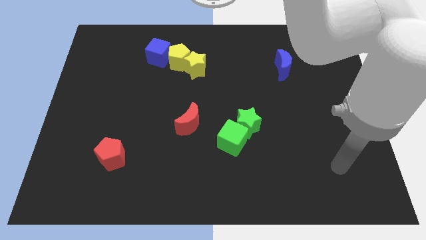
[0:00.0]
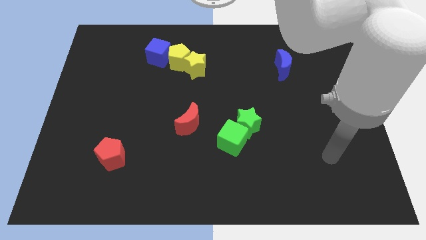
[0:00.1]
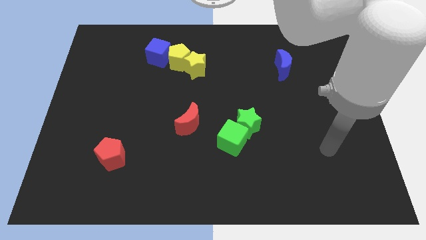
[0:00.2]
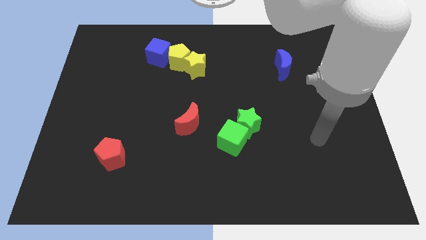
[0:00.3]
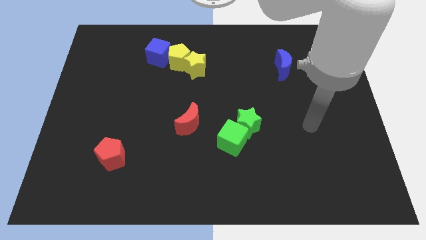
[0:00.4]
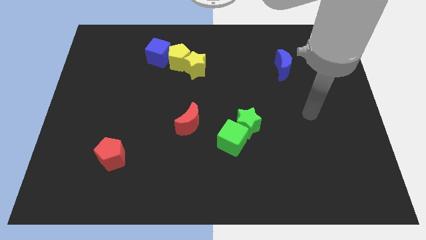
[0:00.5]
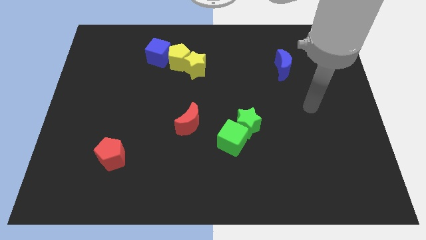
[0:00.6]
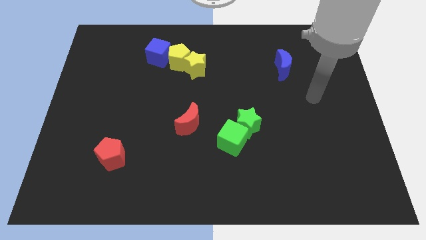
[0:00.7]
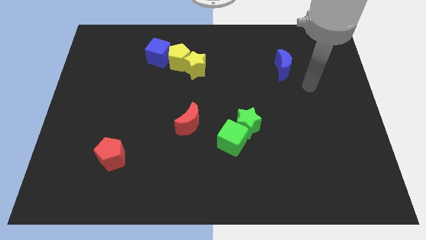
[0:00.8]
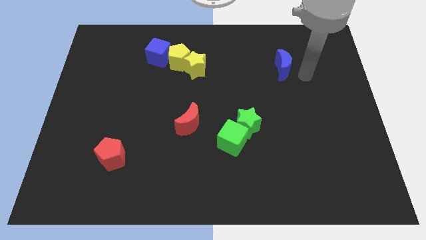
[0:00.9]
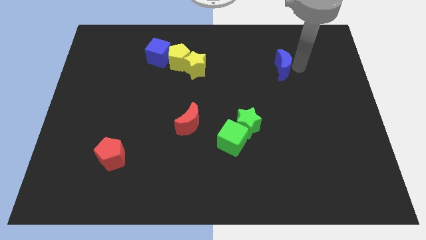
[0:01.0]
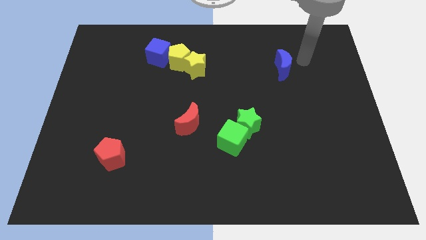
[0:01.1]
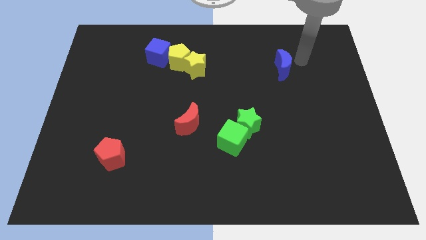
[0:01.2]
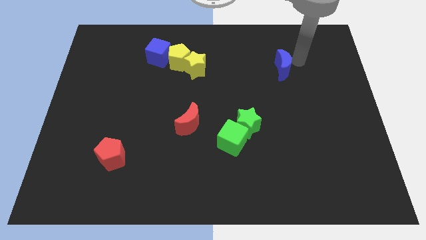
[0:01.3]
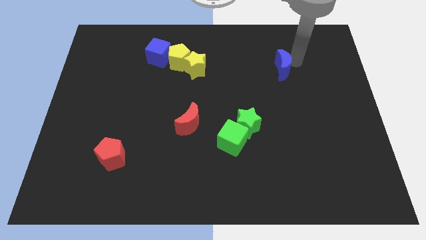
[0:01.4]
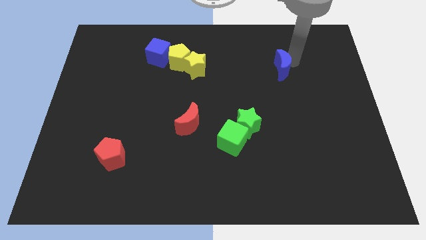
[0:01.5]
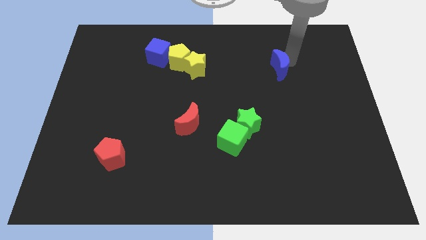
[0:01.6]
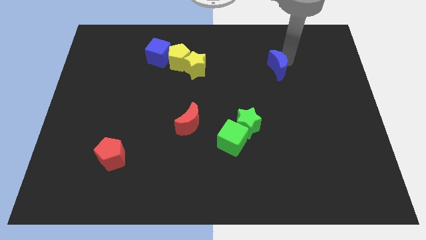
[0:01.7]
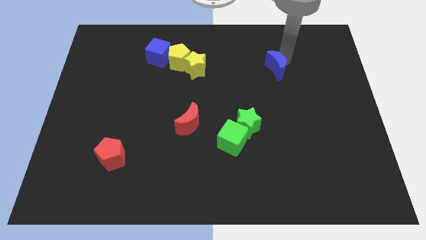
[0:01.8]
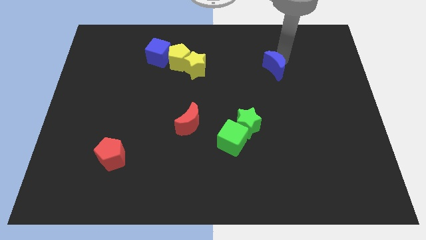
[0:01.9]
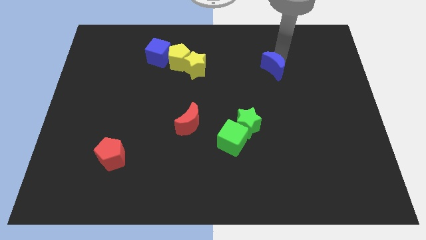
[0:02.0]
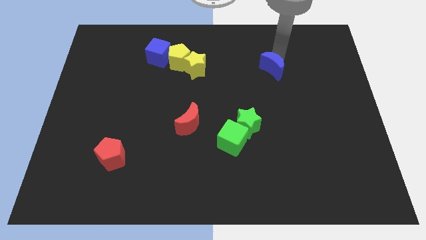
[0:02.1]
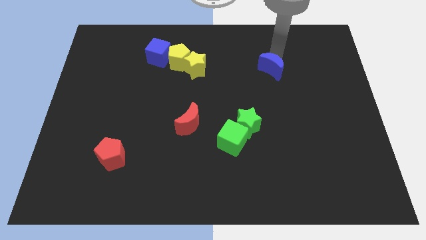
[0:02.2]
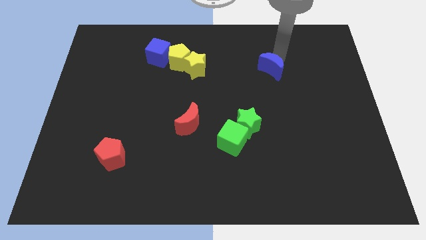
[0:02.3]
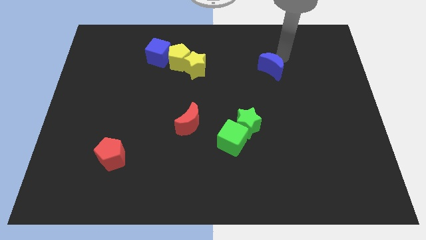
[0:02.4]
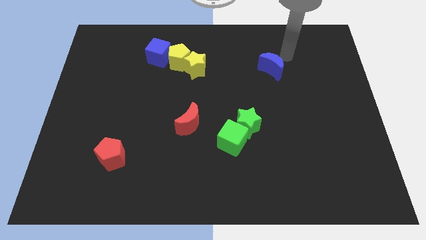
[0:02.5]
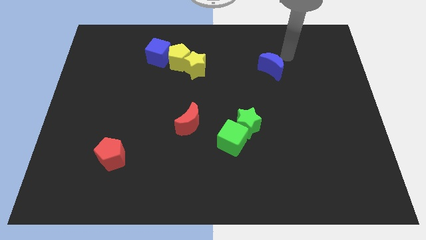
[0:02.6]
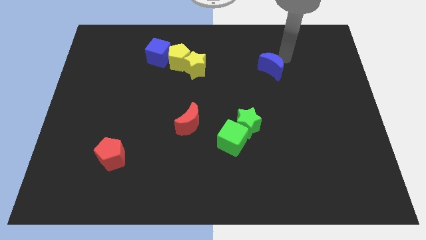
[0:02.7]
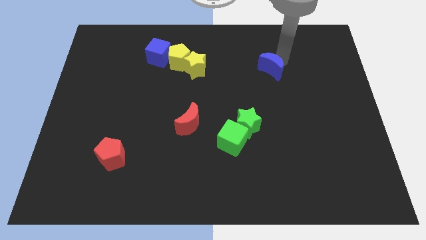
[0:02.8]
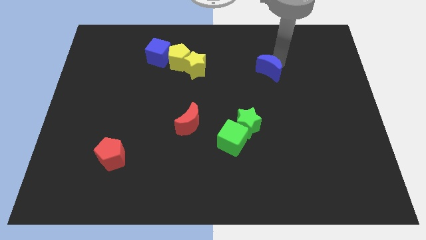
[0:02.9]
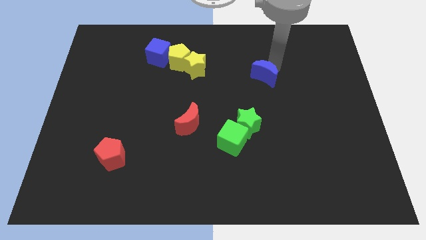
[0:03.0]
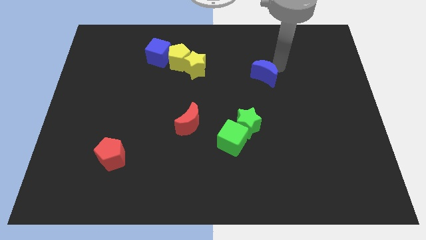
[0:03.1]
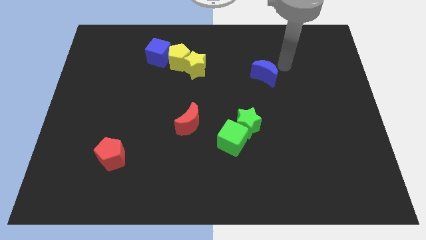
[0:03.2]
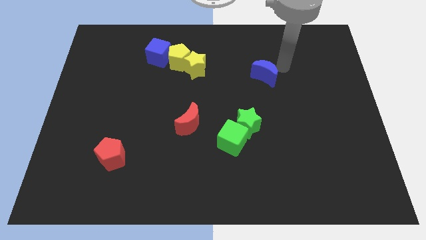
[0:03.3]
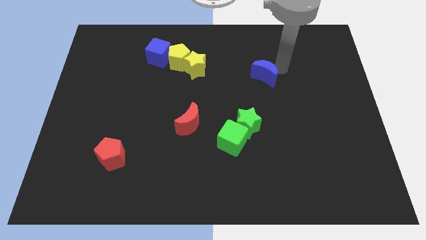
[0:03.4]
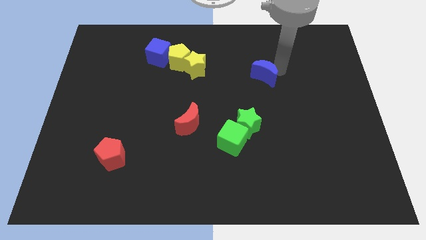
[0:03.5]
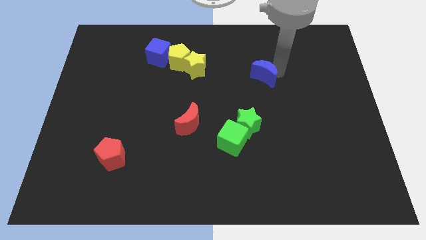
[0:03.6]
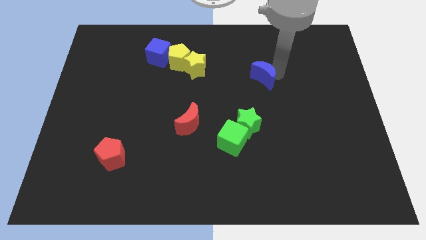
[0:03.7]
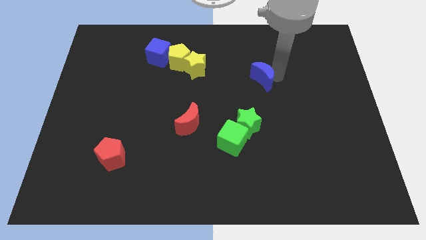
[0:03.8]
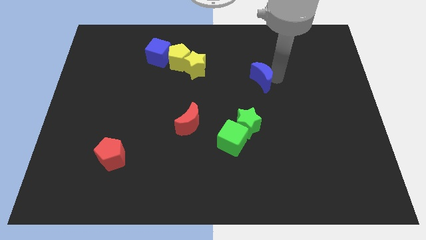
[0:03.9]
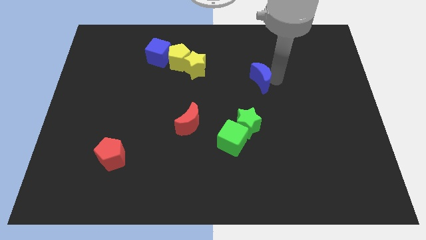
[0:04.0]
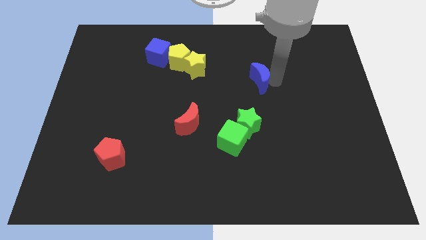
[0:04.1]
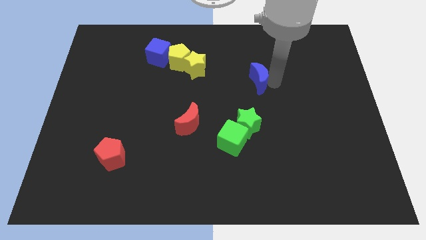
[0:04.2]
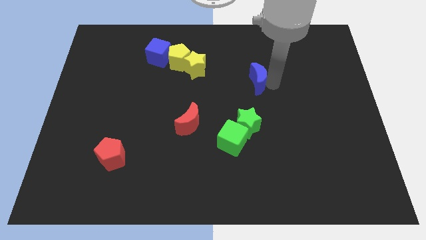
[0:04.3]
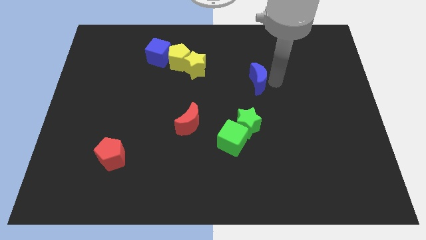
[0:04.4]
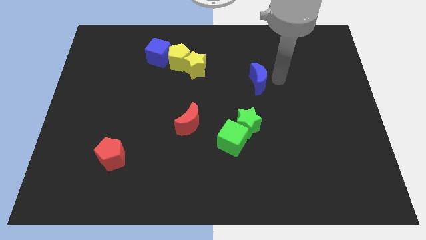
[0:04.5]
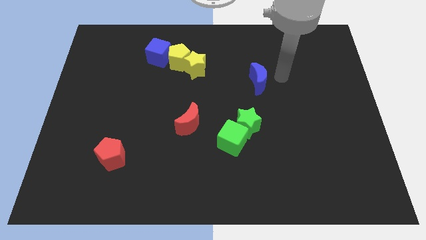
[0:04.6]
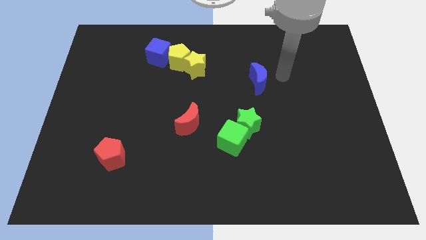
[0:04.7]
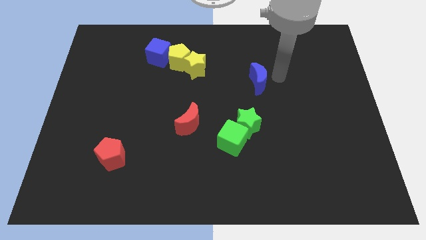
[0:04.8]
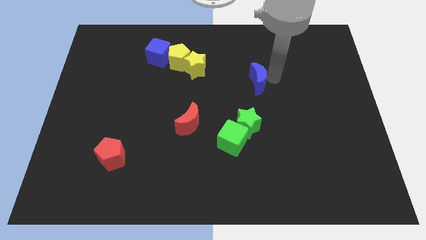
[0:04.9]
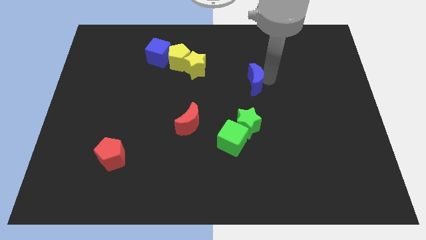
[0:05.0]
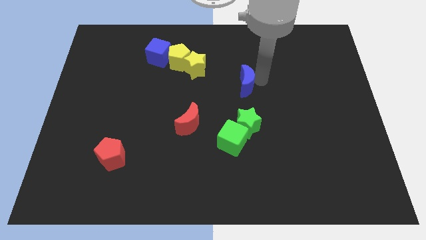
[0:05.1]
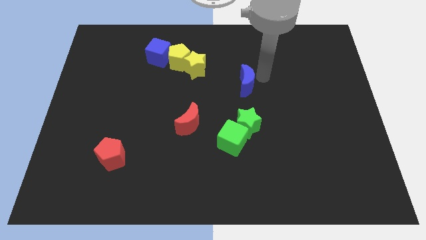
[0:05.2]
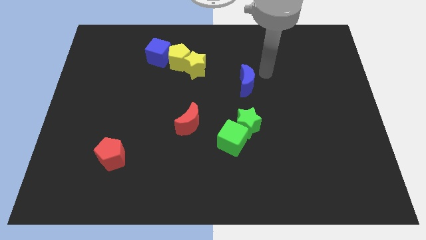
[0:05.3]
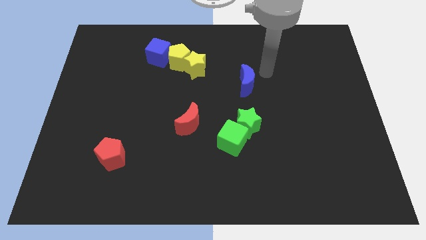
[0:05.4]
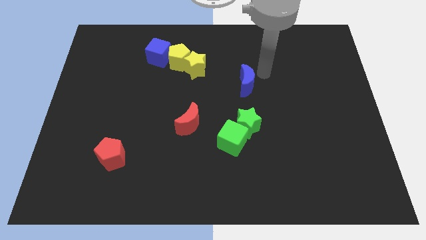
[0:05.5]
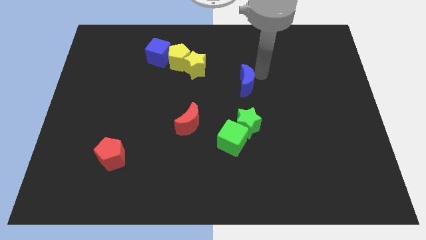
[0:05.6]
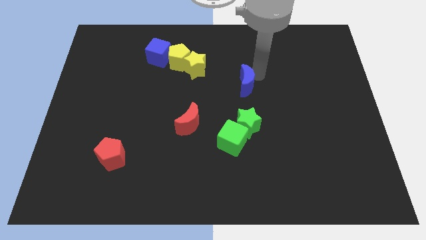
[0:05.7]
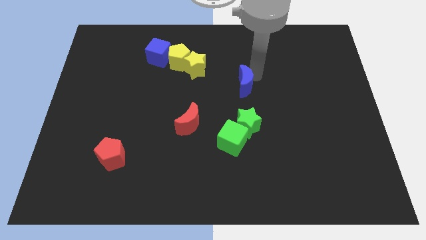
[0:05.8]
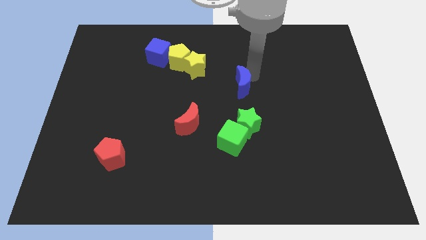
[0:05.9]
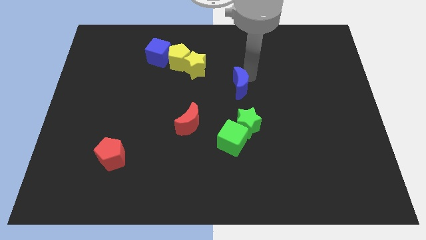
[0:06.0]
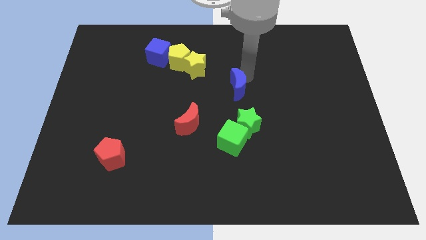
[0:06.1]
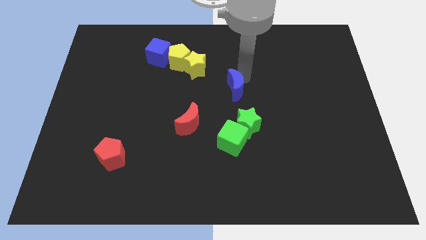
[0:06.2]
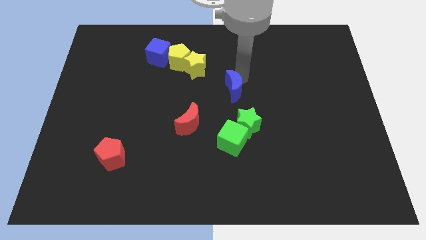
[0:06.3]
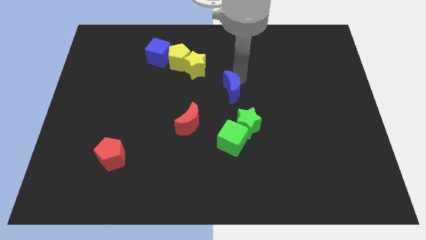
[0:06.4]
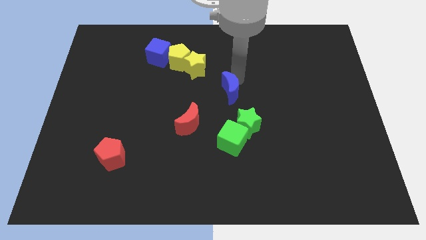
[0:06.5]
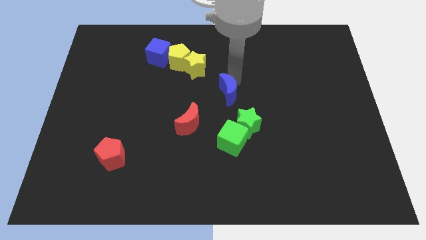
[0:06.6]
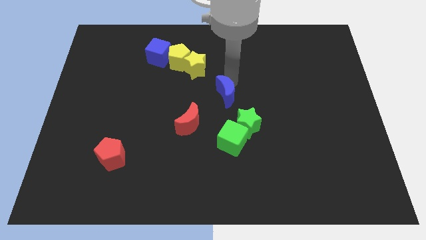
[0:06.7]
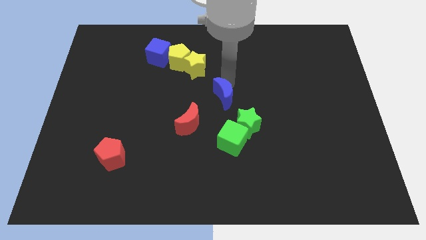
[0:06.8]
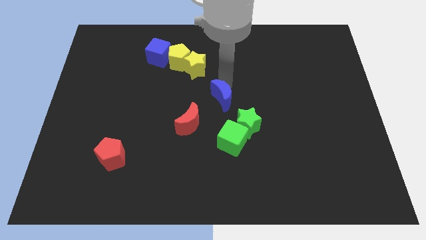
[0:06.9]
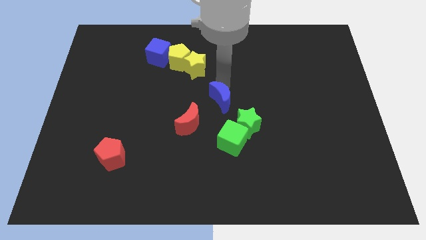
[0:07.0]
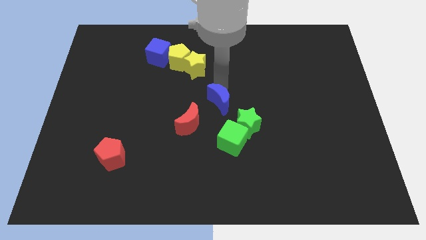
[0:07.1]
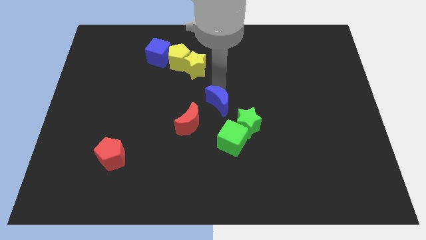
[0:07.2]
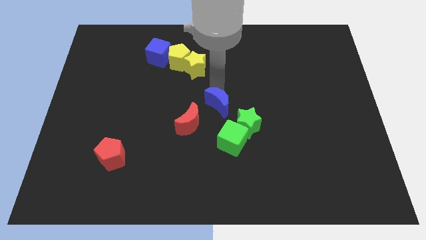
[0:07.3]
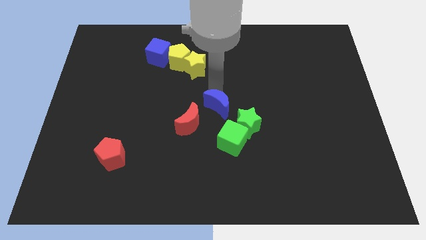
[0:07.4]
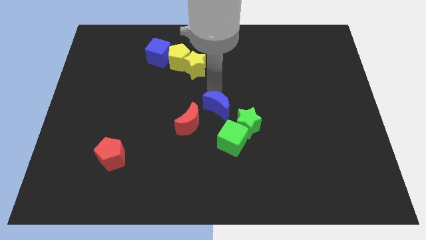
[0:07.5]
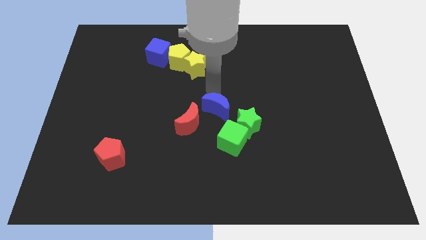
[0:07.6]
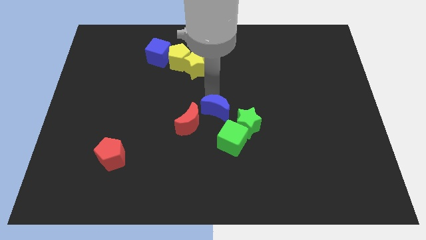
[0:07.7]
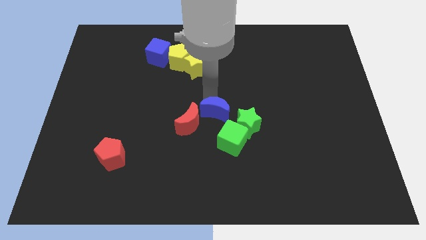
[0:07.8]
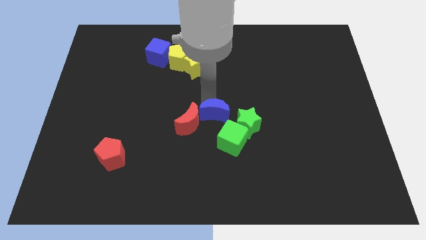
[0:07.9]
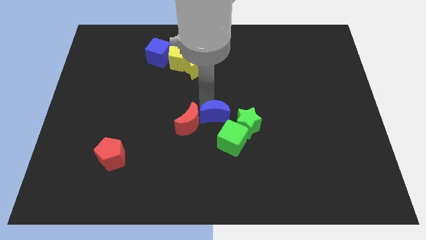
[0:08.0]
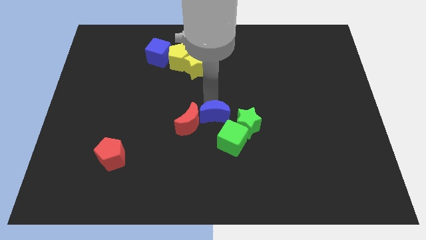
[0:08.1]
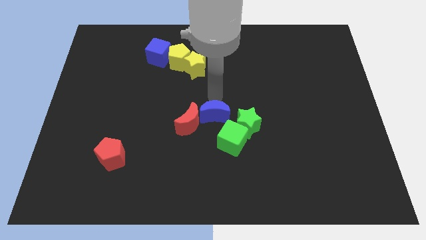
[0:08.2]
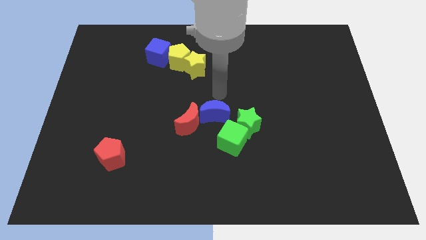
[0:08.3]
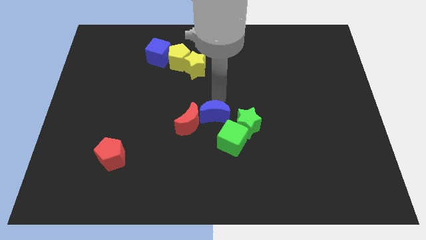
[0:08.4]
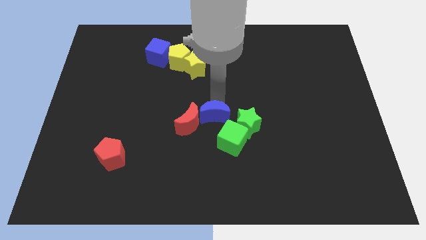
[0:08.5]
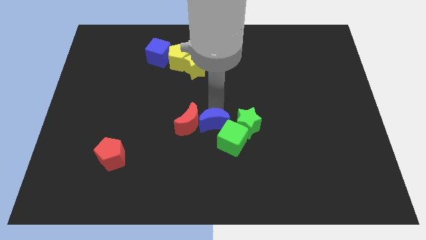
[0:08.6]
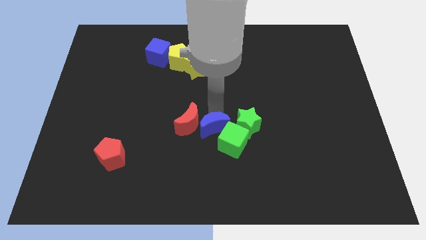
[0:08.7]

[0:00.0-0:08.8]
slide the blue moon to the bottom left side of the green star
